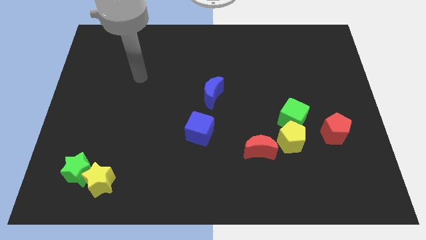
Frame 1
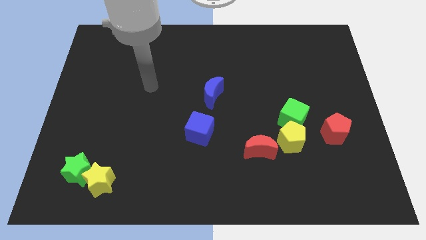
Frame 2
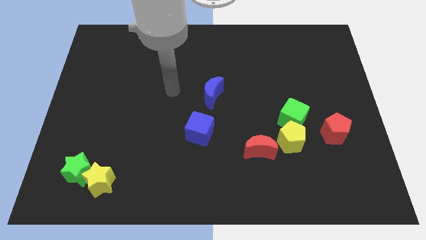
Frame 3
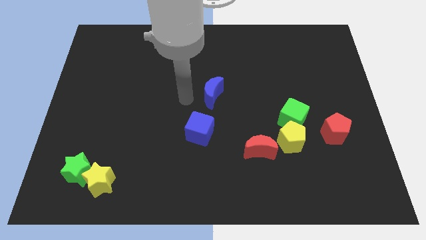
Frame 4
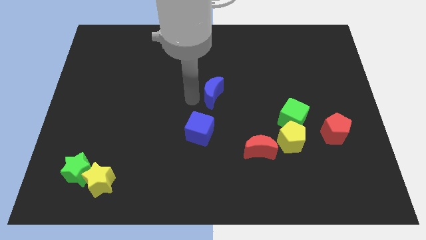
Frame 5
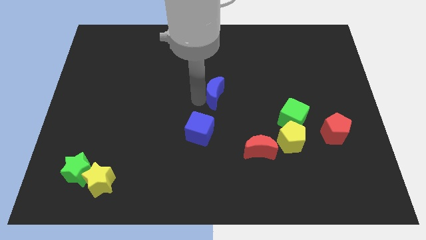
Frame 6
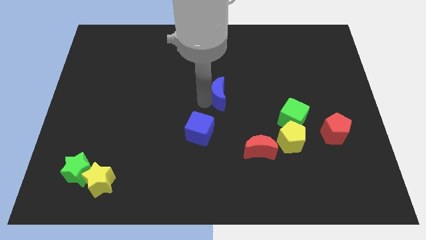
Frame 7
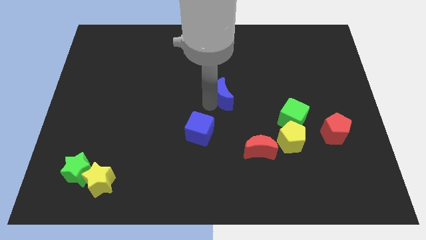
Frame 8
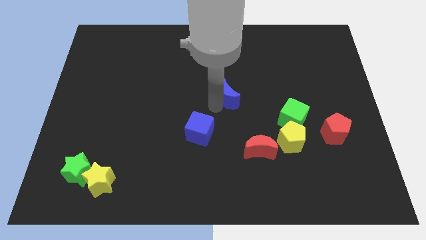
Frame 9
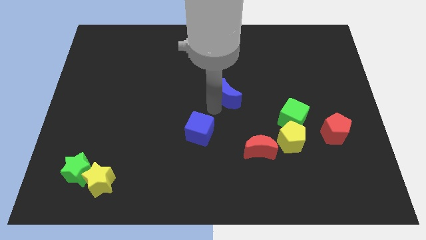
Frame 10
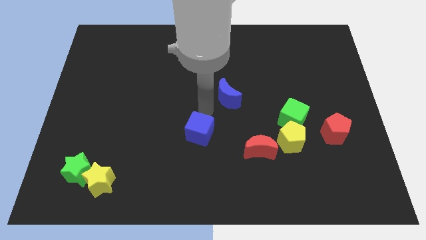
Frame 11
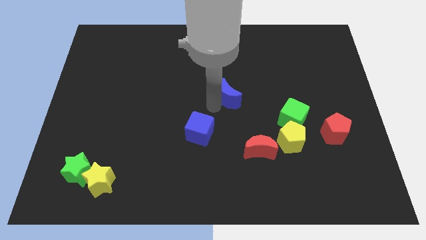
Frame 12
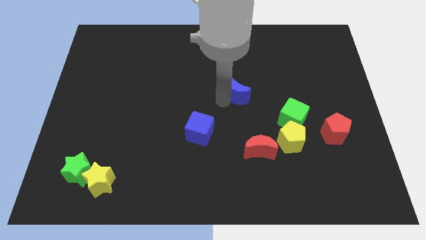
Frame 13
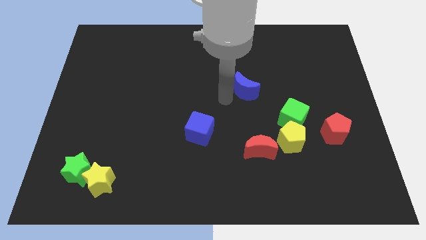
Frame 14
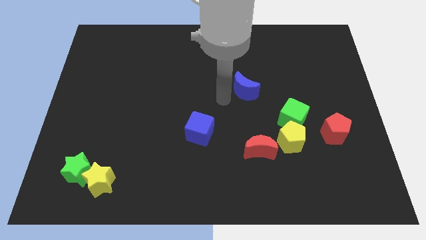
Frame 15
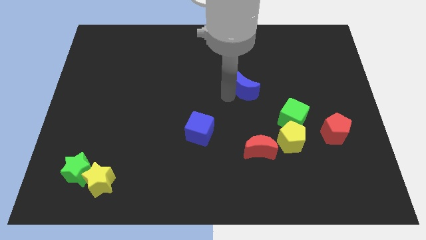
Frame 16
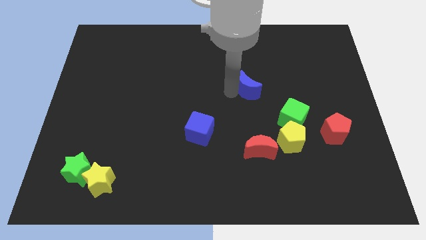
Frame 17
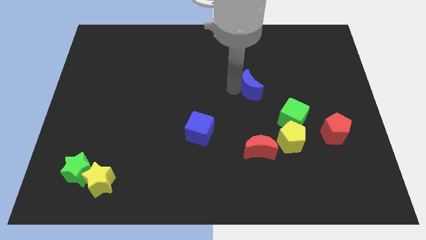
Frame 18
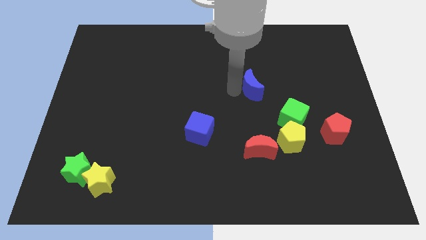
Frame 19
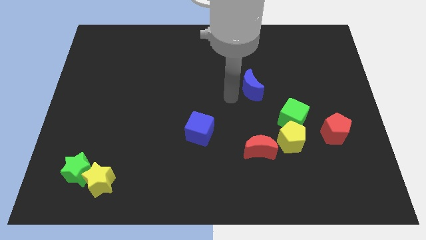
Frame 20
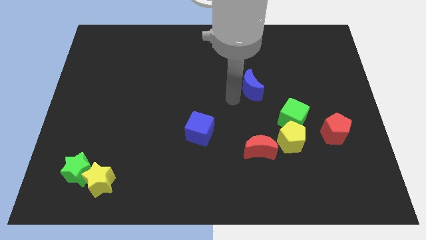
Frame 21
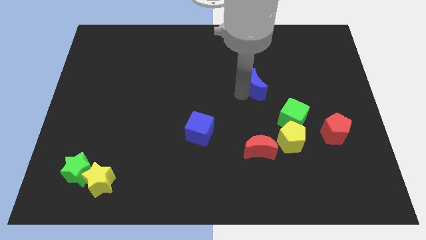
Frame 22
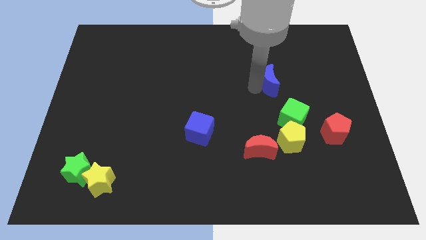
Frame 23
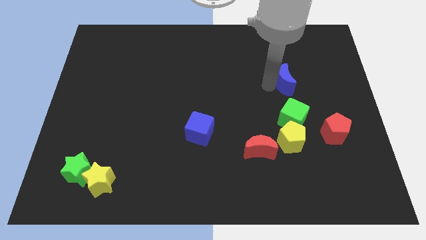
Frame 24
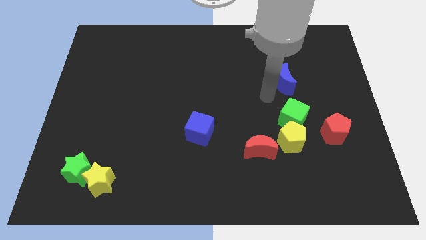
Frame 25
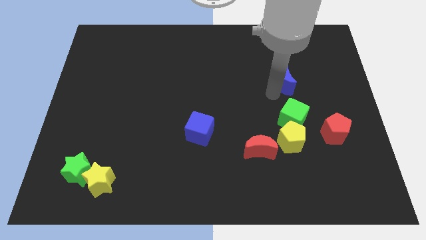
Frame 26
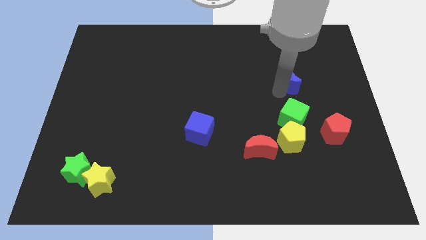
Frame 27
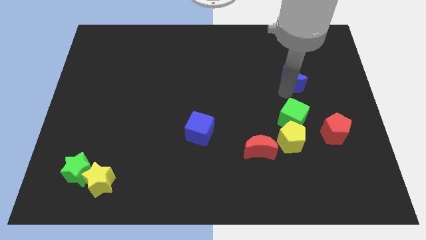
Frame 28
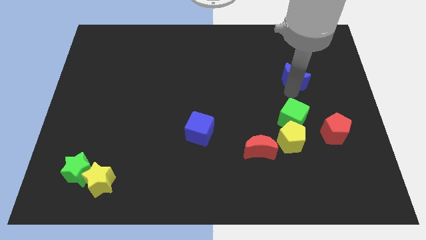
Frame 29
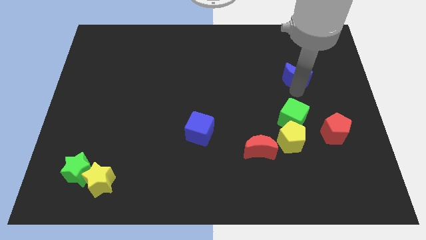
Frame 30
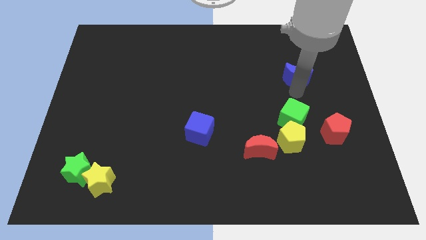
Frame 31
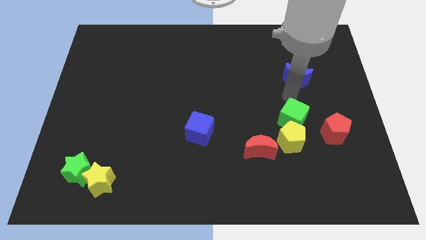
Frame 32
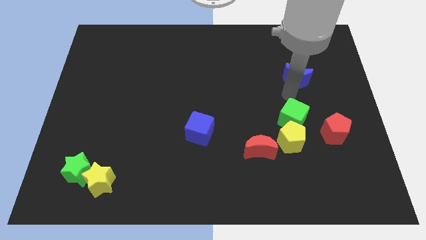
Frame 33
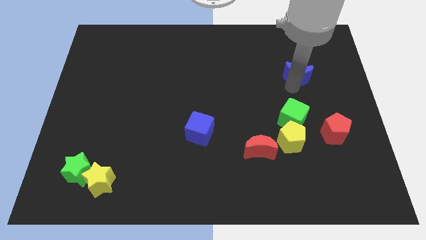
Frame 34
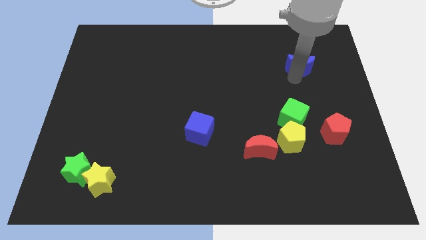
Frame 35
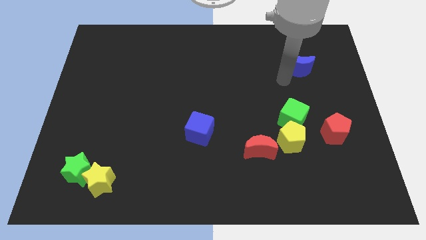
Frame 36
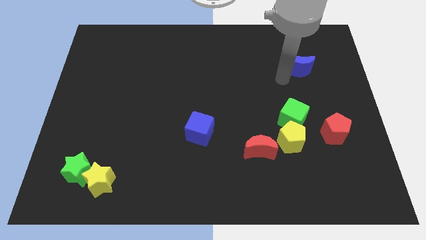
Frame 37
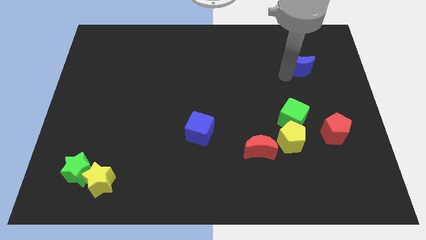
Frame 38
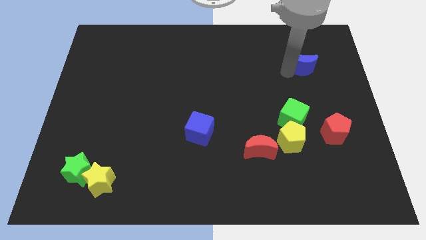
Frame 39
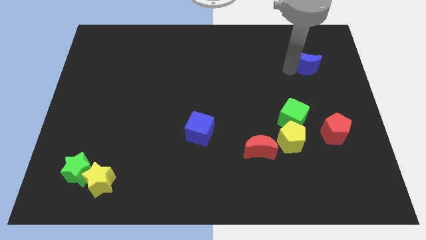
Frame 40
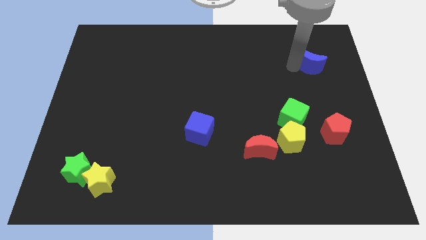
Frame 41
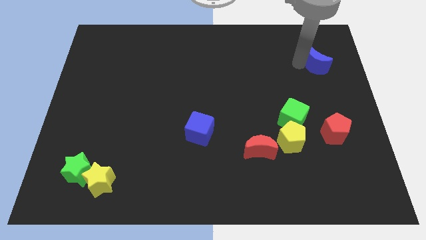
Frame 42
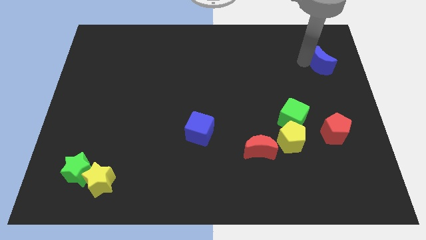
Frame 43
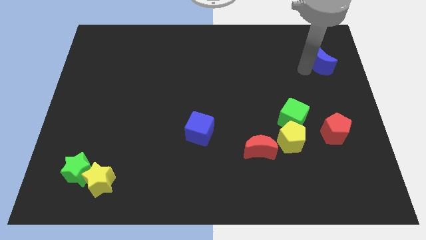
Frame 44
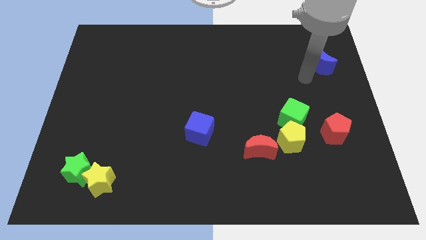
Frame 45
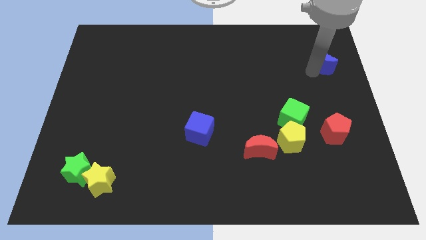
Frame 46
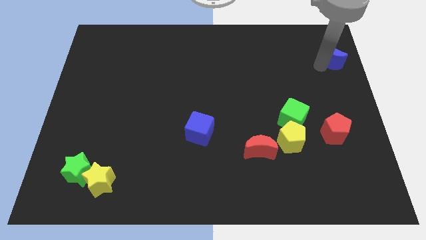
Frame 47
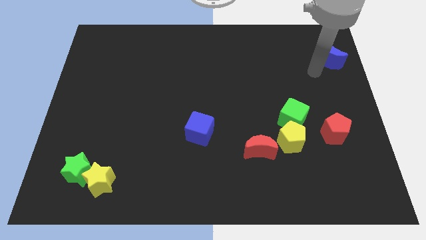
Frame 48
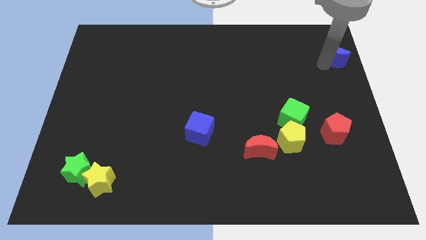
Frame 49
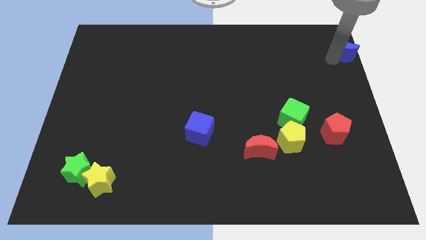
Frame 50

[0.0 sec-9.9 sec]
move the blue moon to the top right

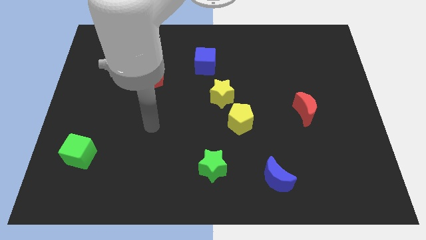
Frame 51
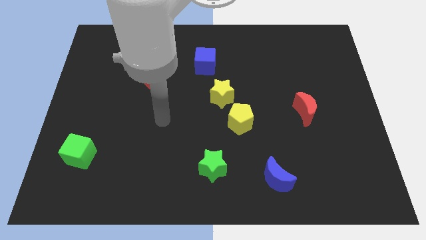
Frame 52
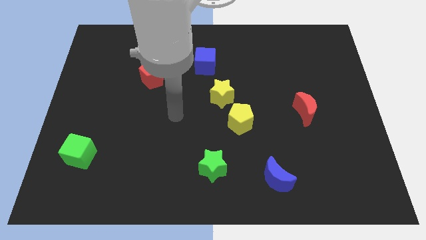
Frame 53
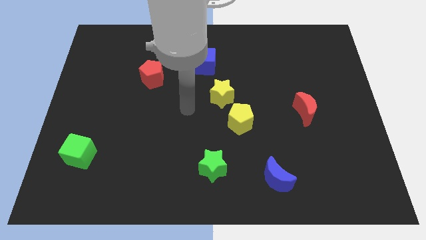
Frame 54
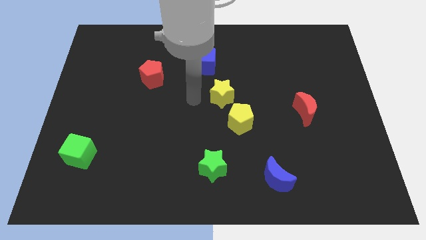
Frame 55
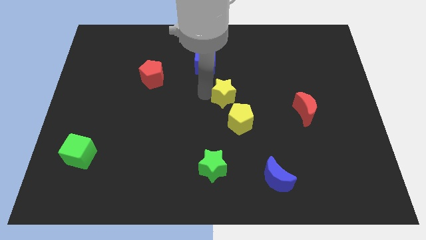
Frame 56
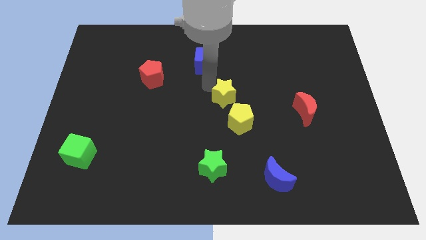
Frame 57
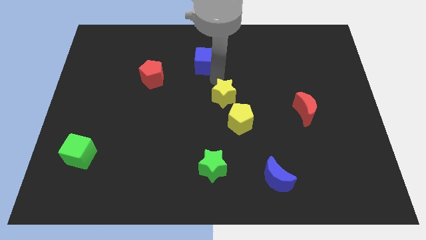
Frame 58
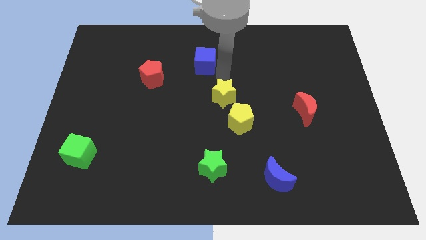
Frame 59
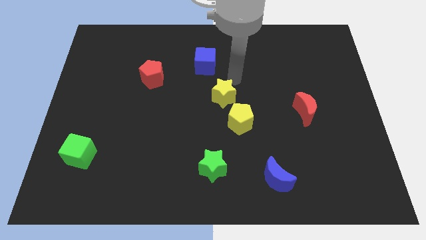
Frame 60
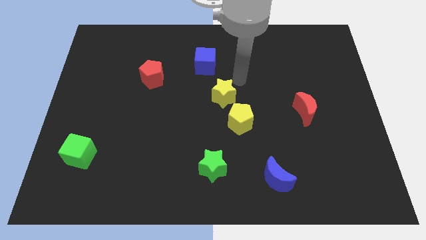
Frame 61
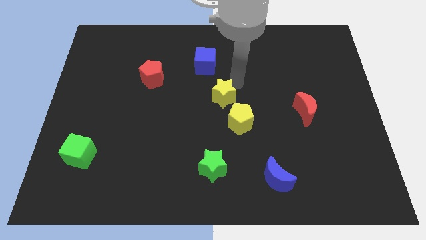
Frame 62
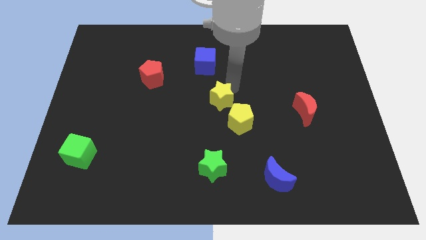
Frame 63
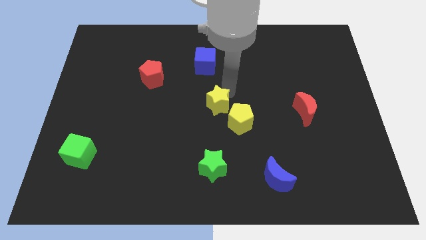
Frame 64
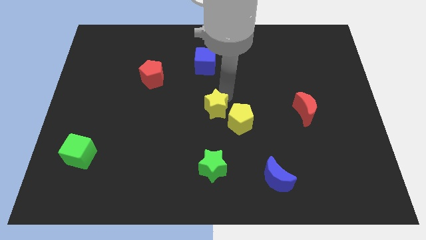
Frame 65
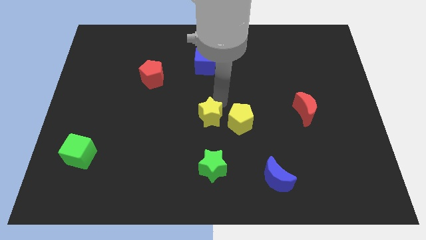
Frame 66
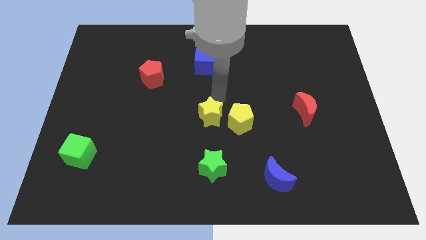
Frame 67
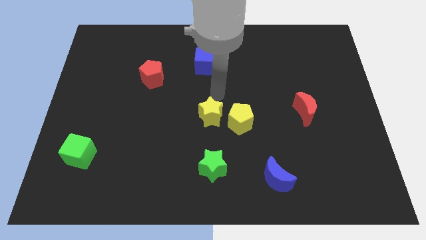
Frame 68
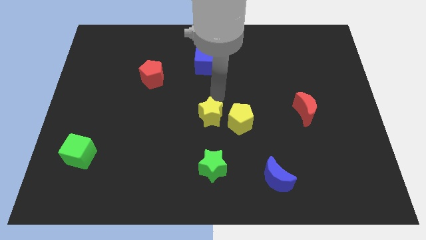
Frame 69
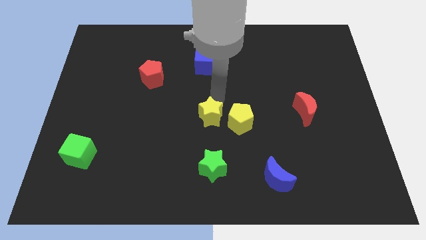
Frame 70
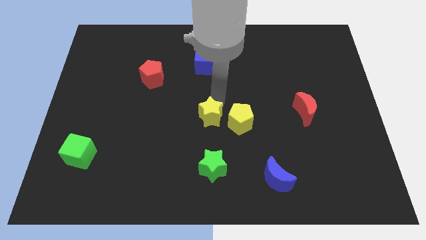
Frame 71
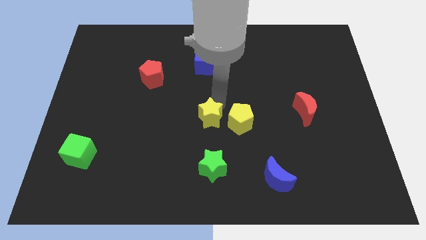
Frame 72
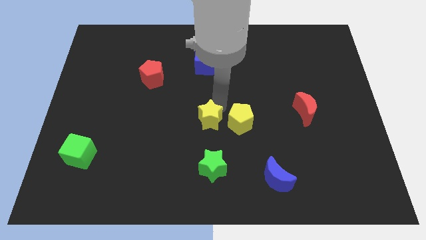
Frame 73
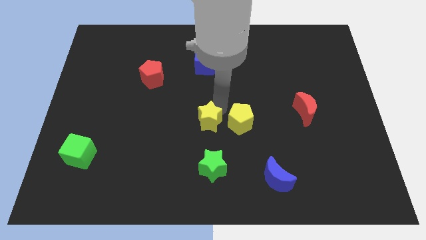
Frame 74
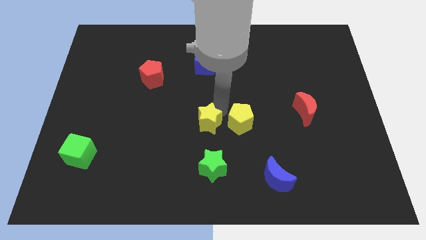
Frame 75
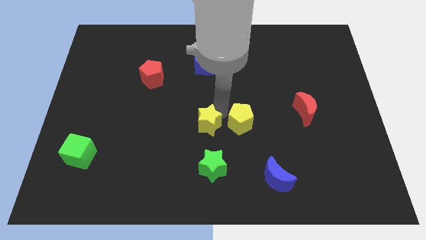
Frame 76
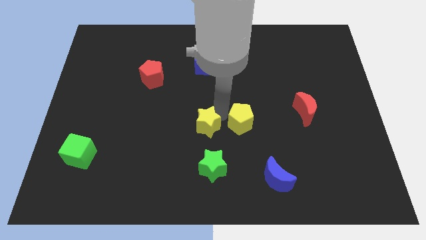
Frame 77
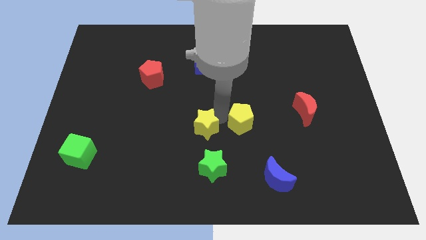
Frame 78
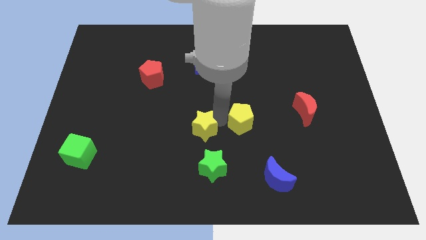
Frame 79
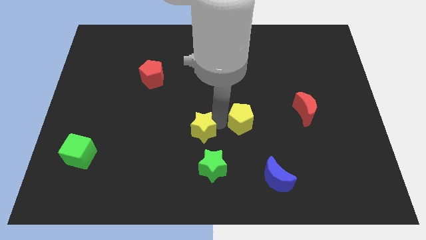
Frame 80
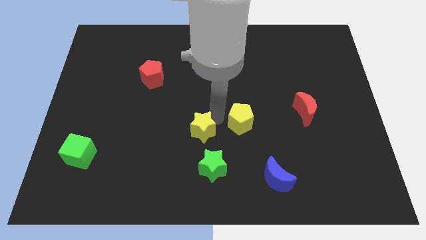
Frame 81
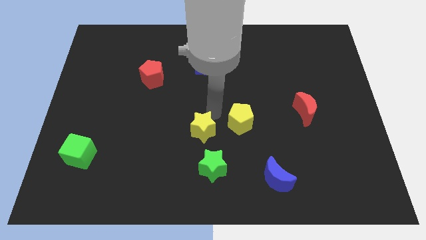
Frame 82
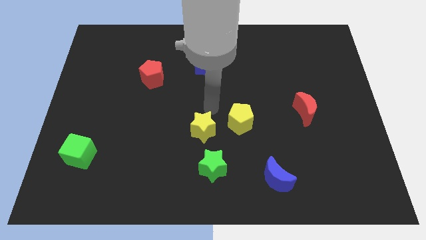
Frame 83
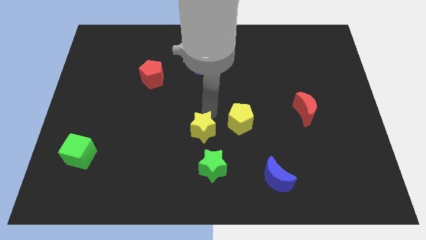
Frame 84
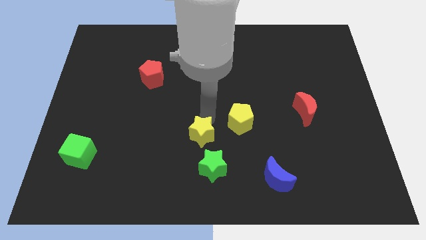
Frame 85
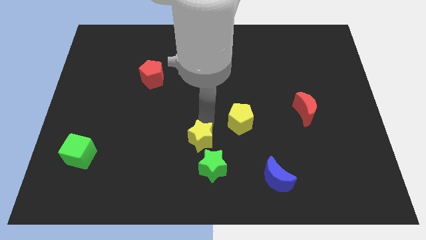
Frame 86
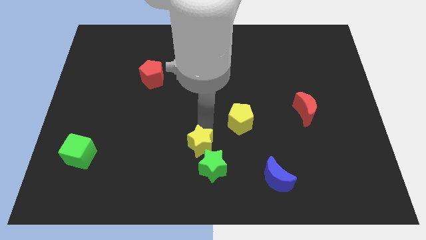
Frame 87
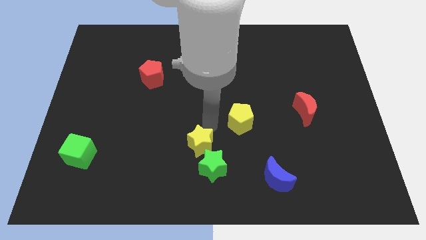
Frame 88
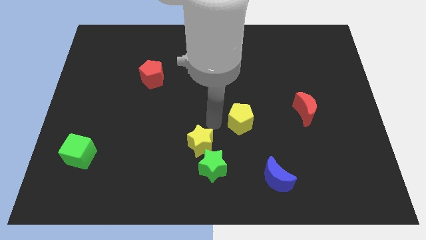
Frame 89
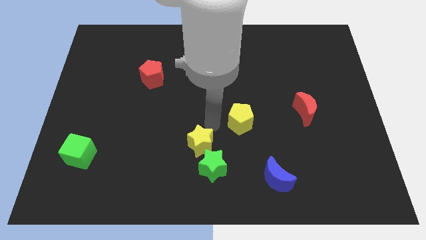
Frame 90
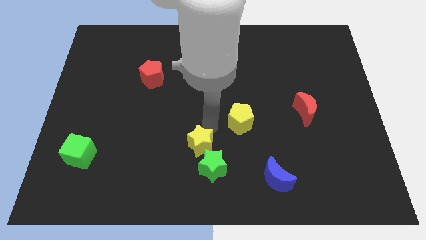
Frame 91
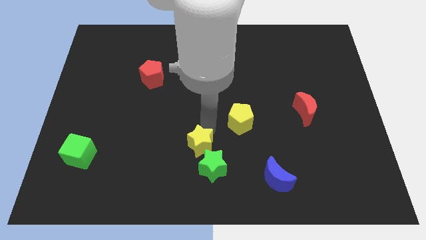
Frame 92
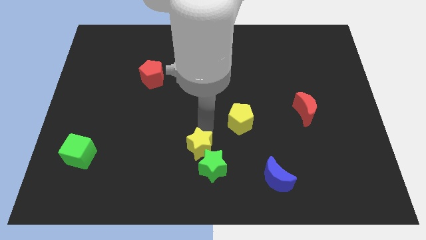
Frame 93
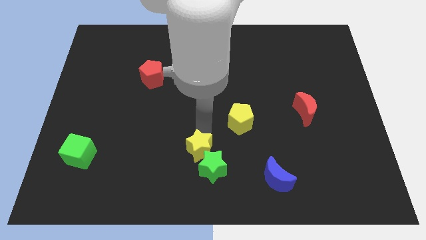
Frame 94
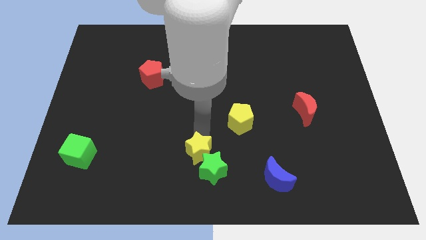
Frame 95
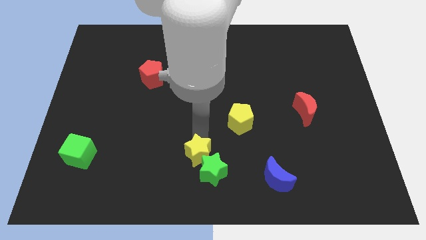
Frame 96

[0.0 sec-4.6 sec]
move the yellow star to the bottom side
